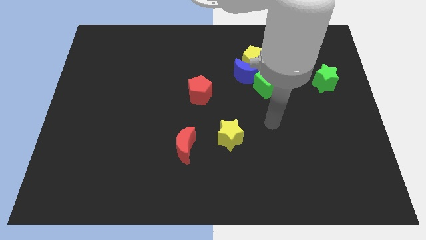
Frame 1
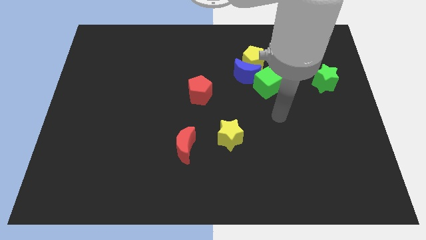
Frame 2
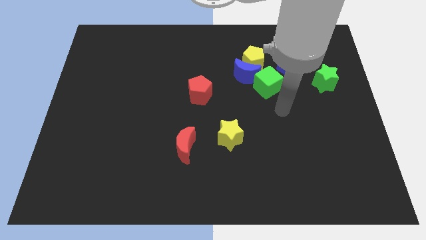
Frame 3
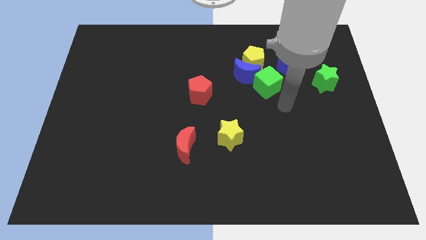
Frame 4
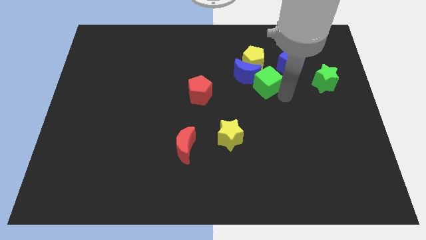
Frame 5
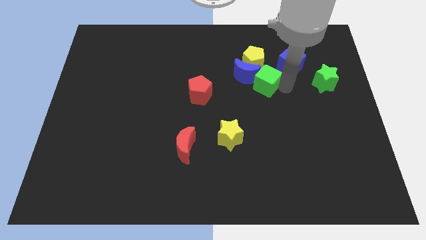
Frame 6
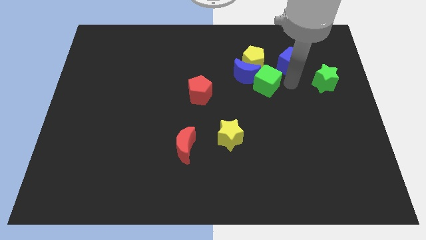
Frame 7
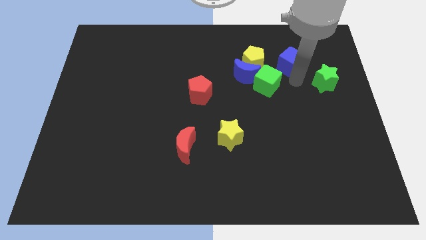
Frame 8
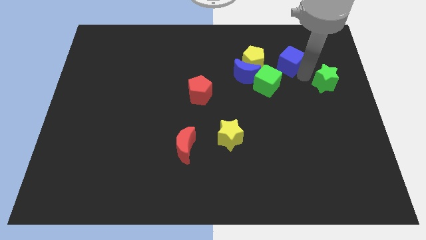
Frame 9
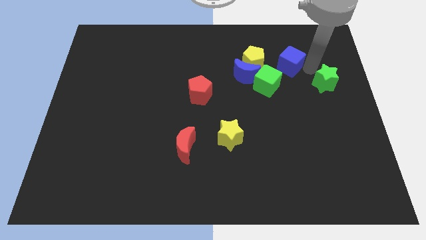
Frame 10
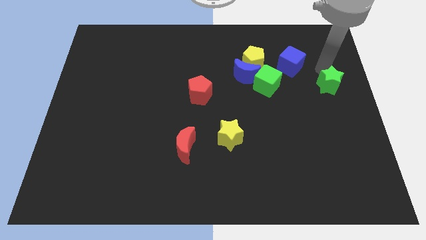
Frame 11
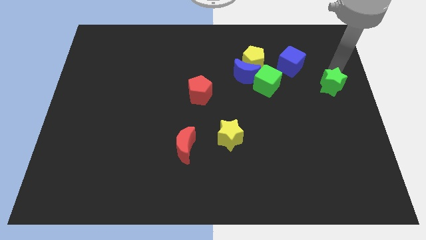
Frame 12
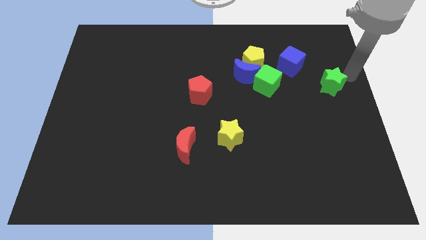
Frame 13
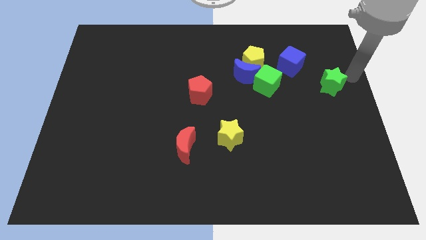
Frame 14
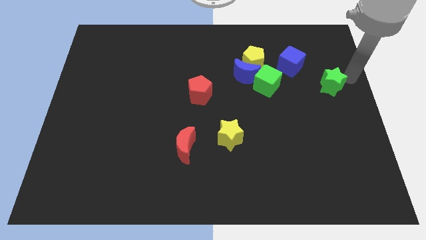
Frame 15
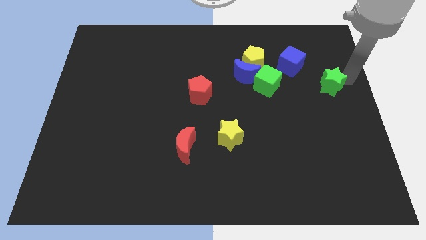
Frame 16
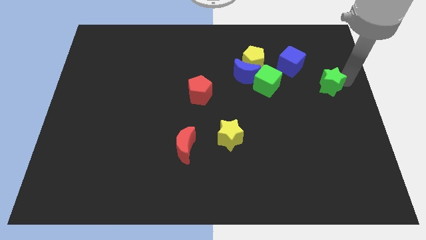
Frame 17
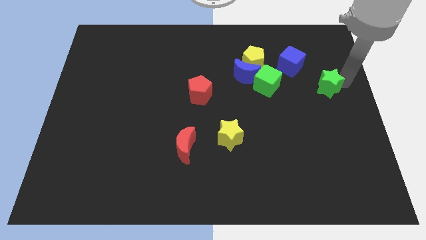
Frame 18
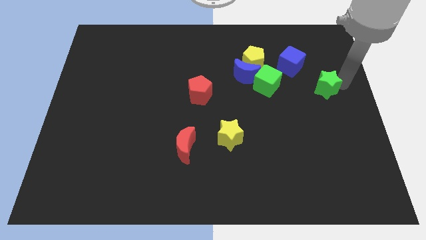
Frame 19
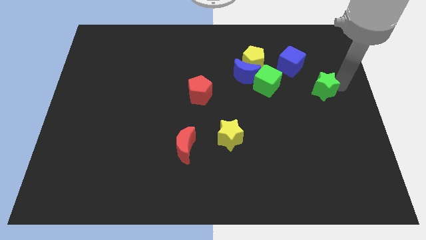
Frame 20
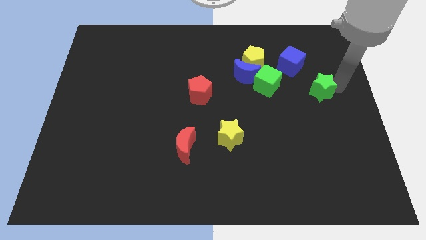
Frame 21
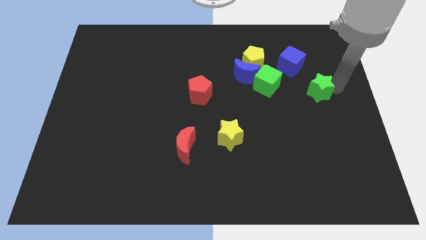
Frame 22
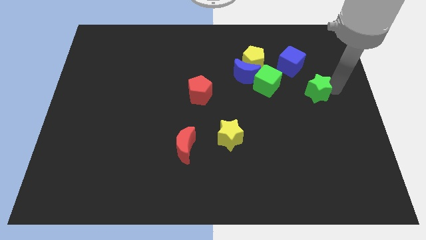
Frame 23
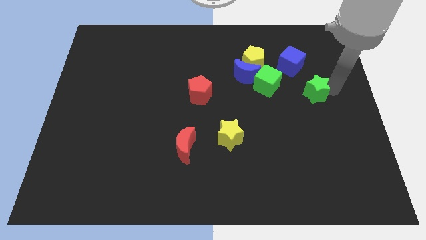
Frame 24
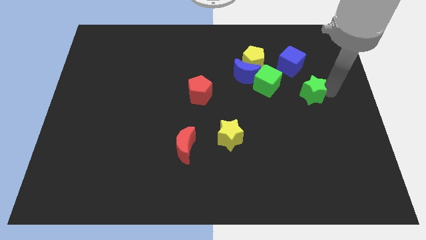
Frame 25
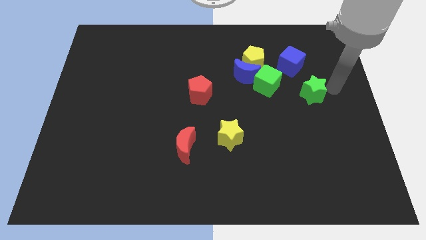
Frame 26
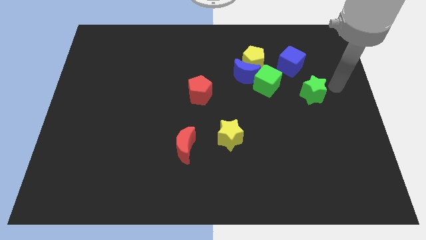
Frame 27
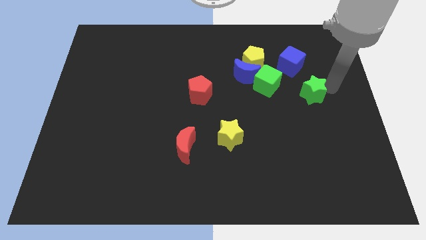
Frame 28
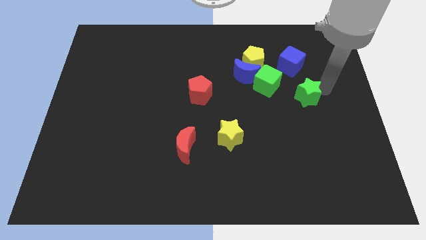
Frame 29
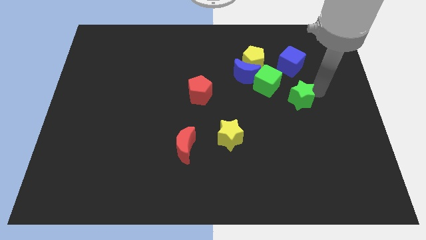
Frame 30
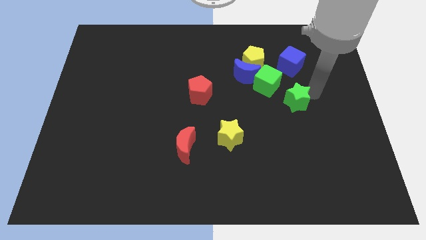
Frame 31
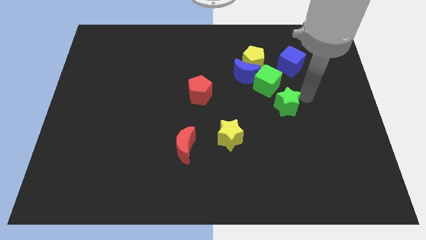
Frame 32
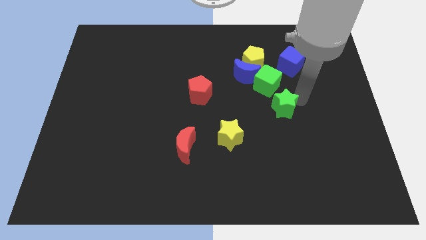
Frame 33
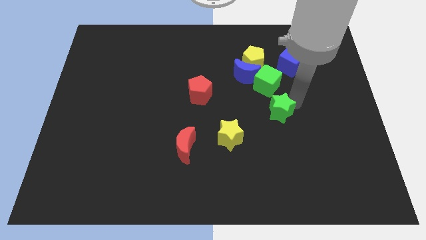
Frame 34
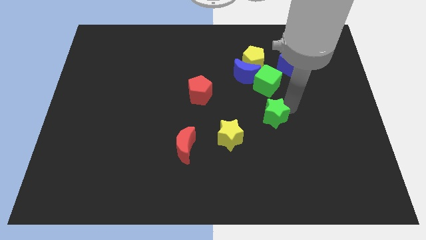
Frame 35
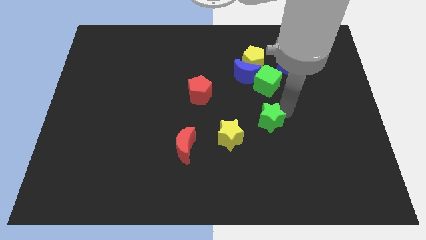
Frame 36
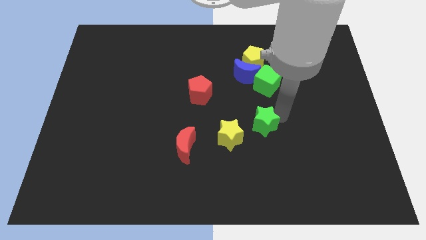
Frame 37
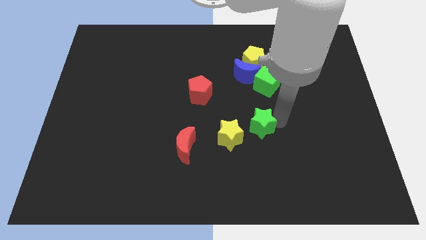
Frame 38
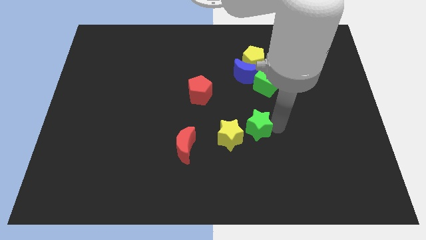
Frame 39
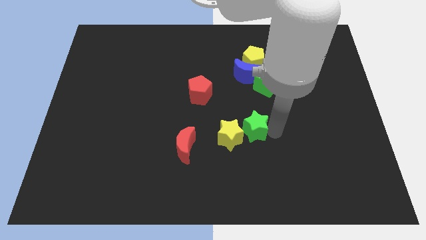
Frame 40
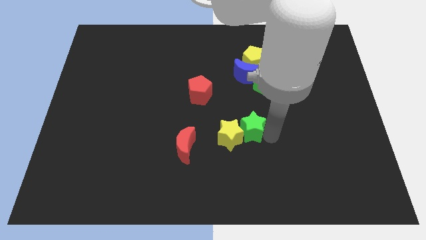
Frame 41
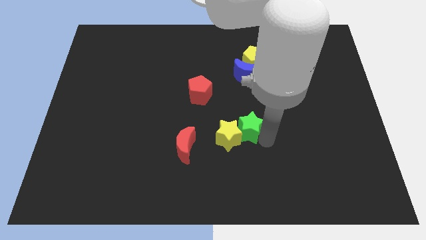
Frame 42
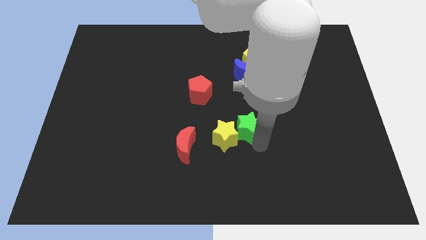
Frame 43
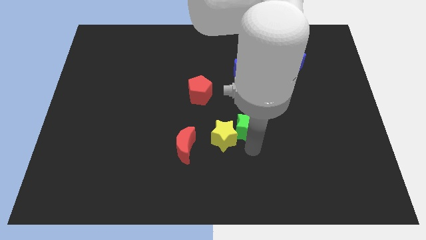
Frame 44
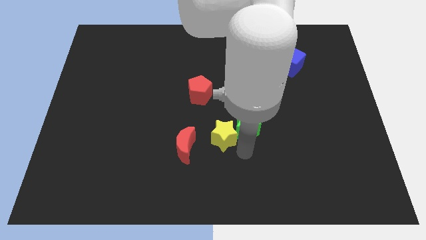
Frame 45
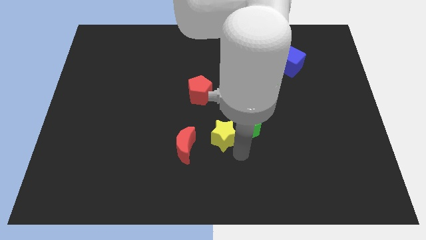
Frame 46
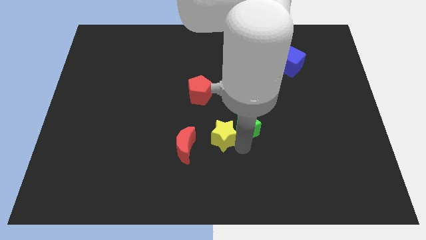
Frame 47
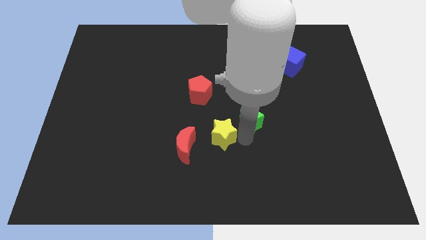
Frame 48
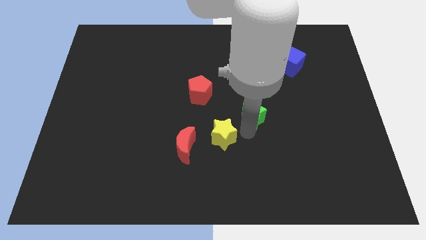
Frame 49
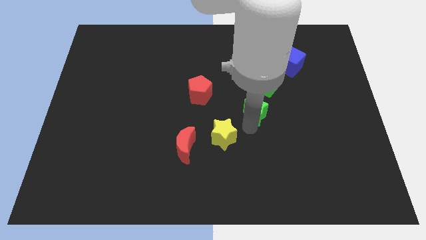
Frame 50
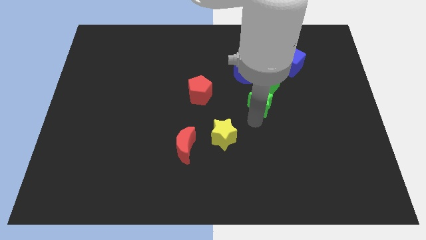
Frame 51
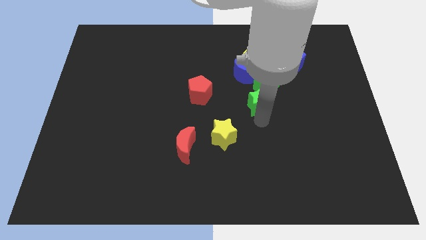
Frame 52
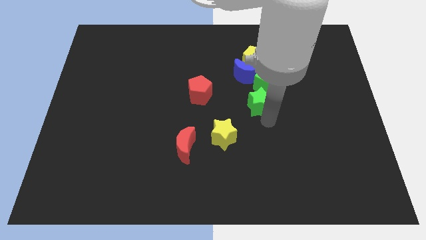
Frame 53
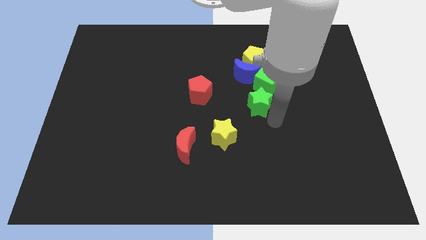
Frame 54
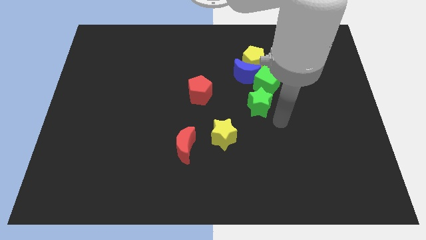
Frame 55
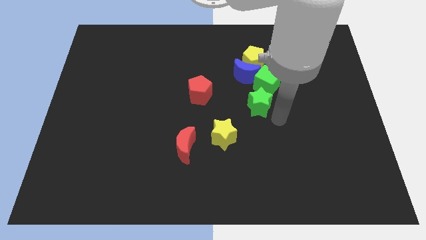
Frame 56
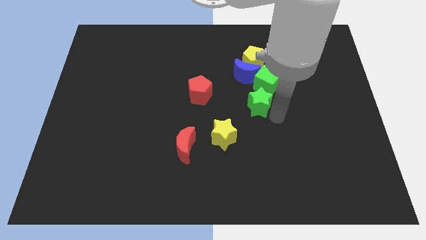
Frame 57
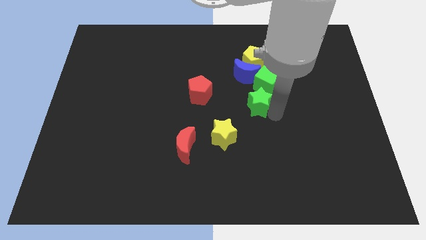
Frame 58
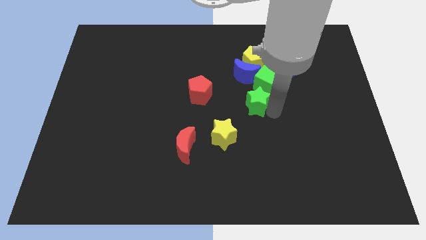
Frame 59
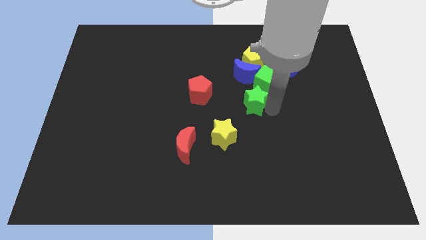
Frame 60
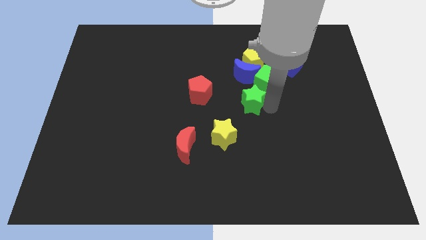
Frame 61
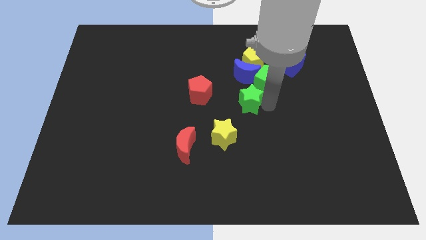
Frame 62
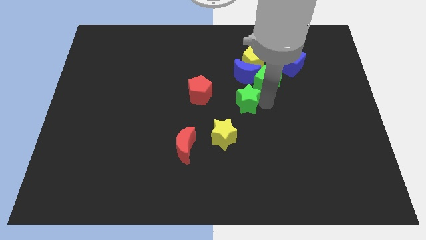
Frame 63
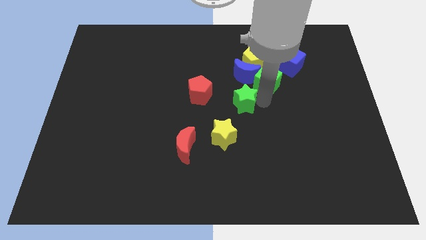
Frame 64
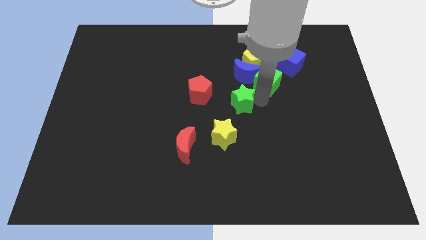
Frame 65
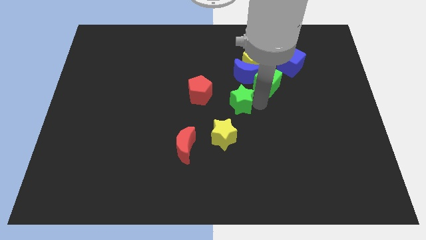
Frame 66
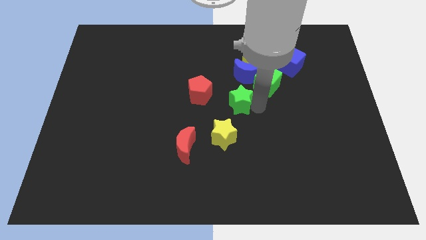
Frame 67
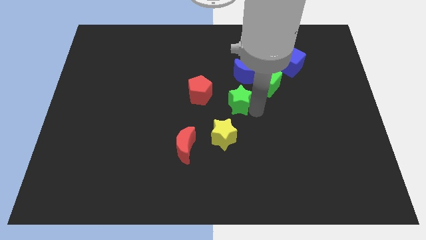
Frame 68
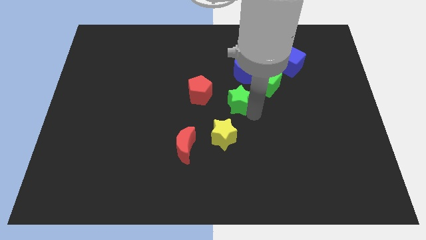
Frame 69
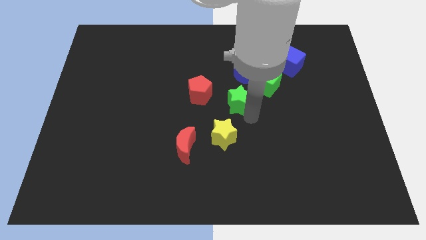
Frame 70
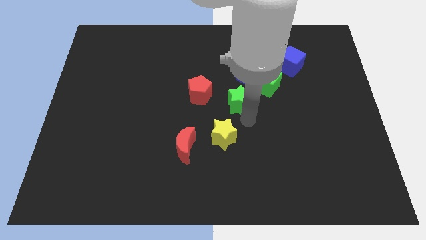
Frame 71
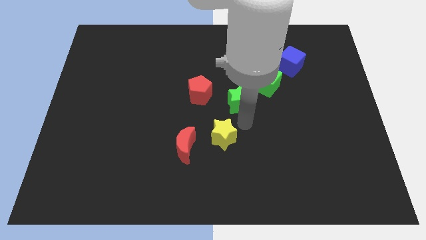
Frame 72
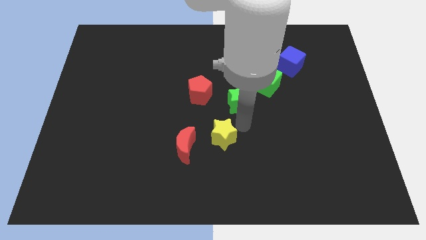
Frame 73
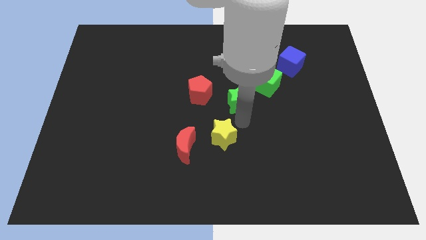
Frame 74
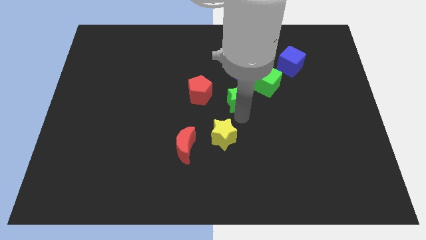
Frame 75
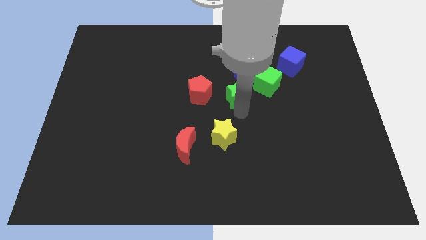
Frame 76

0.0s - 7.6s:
slide the green star to the left
